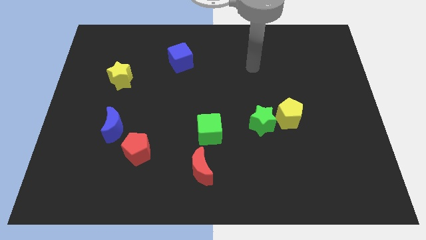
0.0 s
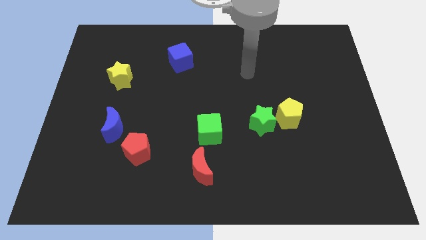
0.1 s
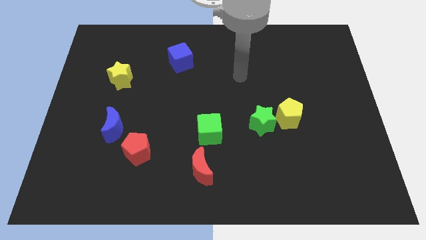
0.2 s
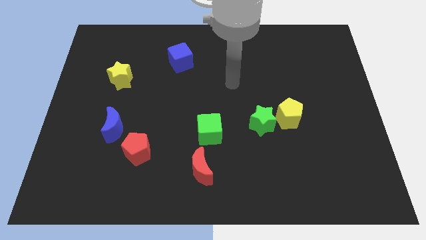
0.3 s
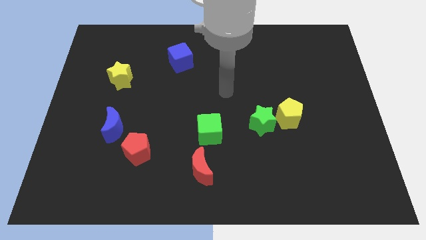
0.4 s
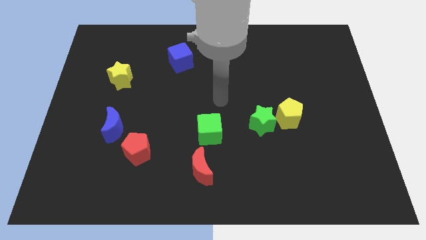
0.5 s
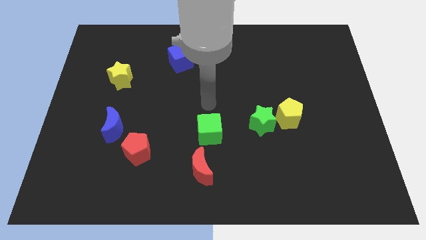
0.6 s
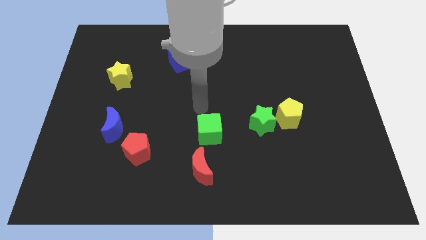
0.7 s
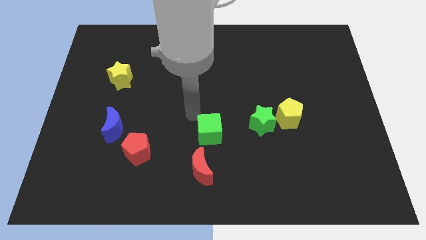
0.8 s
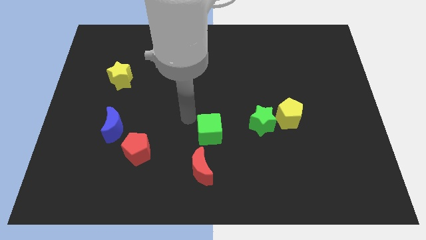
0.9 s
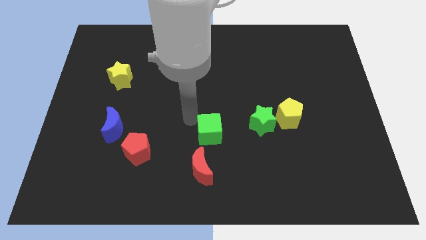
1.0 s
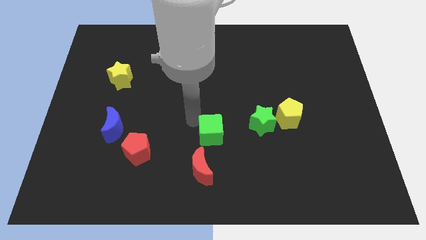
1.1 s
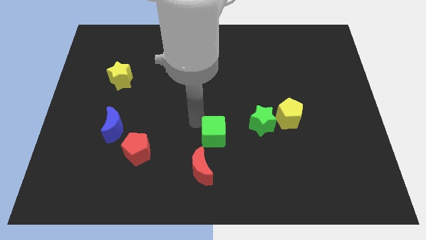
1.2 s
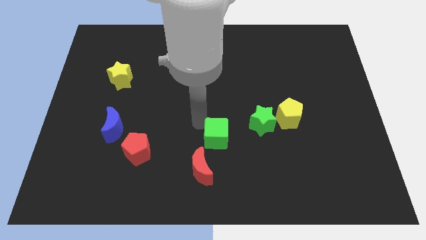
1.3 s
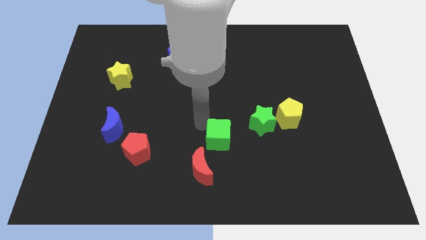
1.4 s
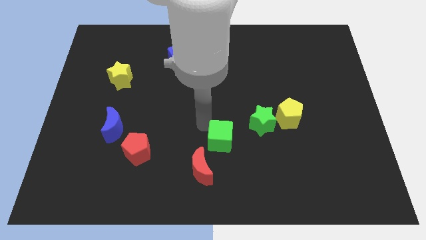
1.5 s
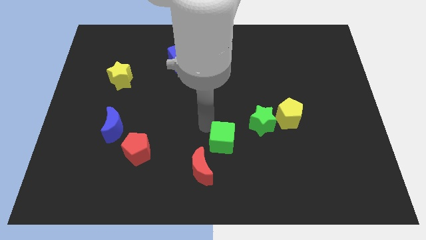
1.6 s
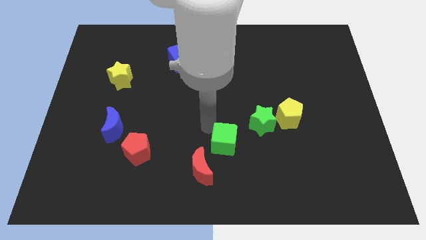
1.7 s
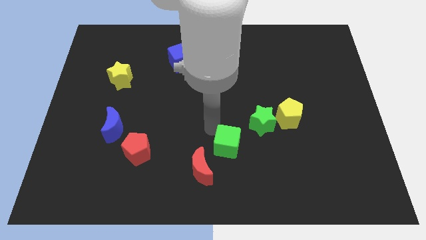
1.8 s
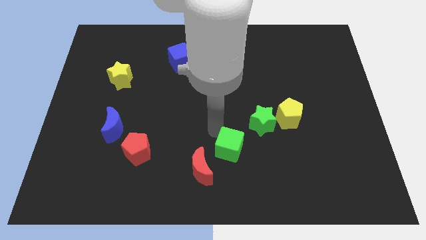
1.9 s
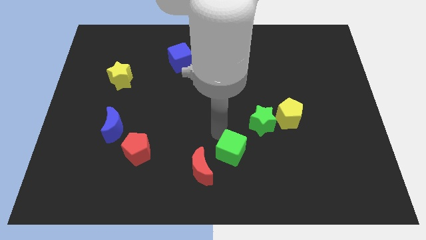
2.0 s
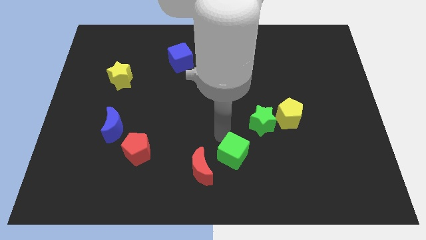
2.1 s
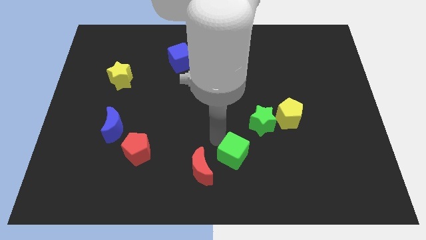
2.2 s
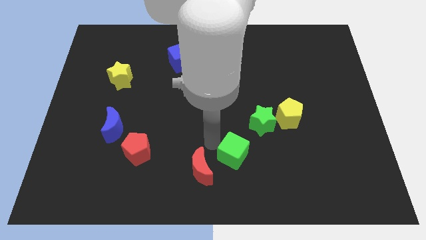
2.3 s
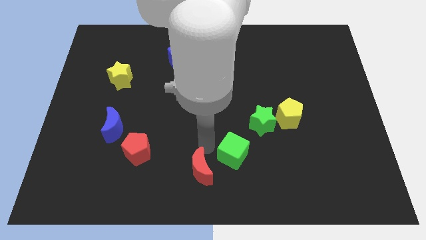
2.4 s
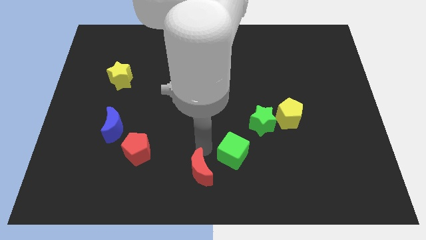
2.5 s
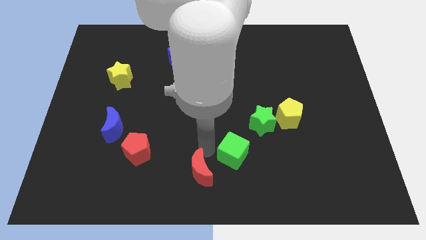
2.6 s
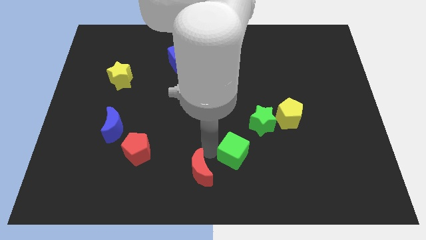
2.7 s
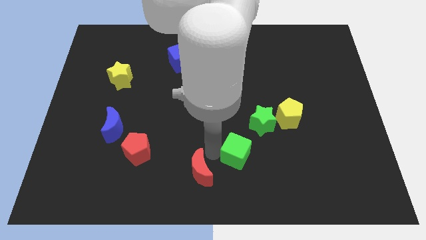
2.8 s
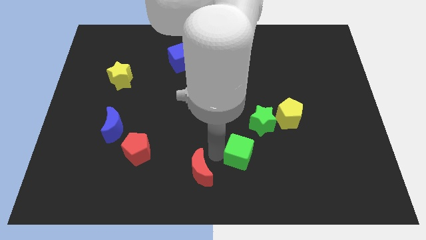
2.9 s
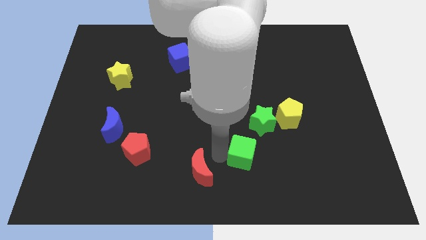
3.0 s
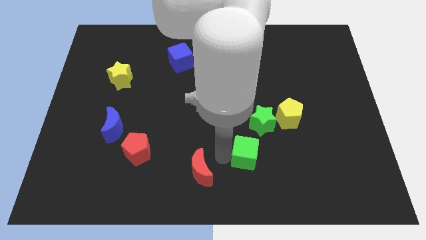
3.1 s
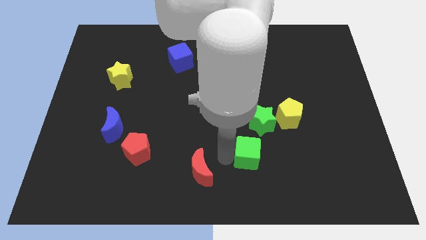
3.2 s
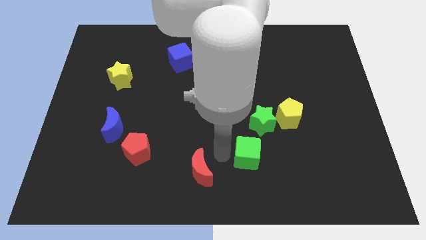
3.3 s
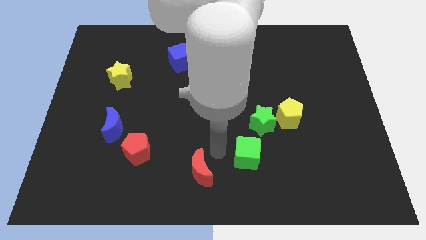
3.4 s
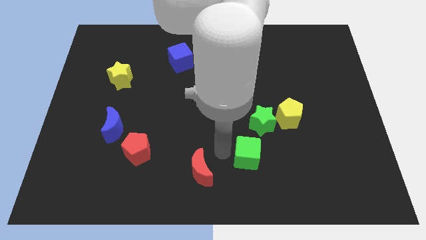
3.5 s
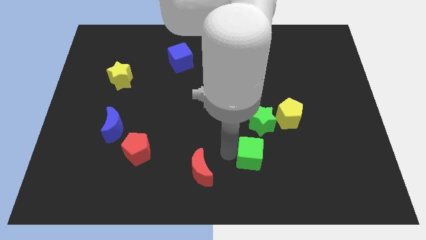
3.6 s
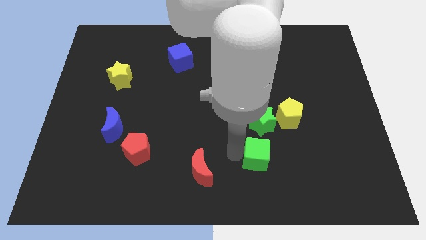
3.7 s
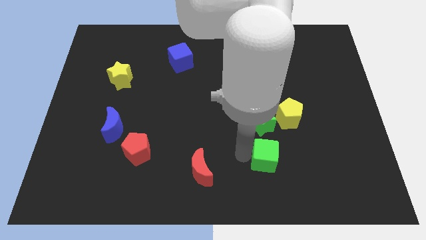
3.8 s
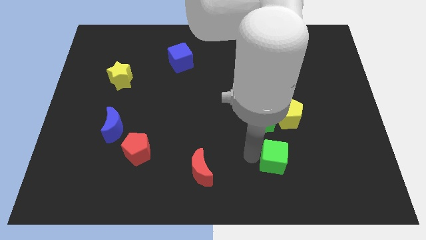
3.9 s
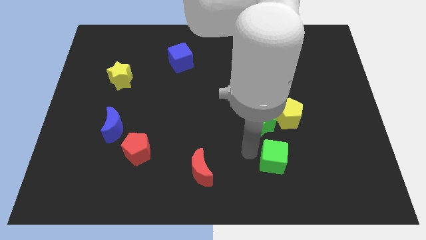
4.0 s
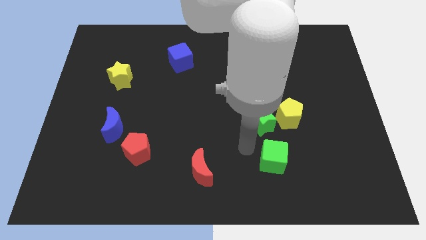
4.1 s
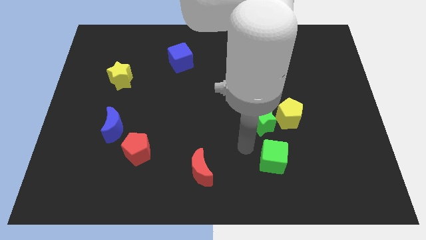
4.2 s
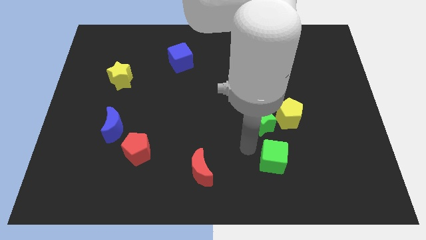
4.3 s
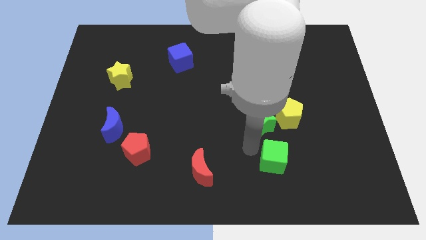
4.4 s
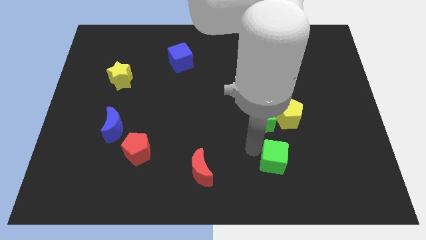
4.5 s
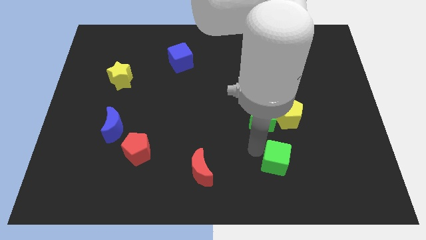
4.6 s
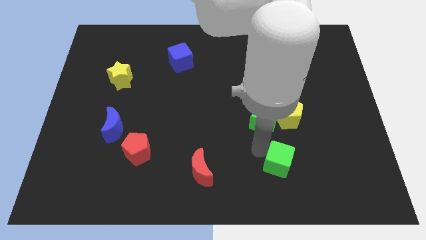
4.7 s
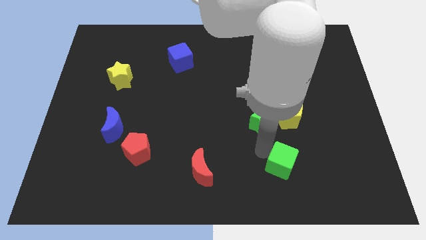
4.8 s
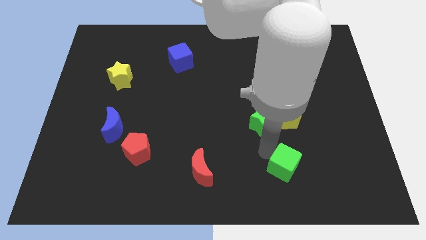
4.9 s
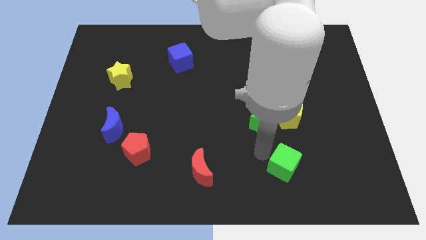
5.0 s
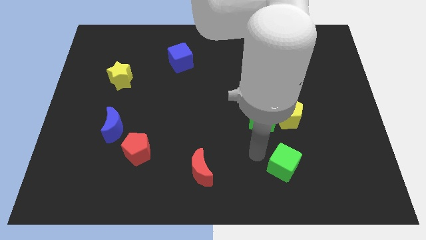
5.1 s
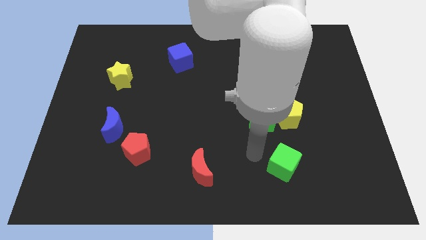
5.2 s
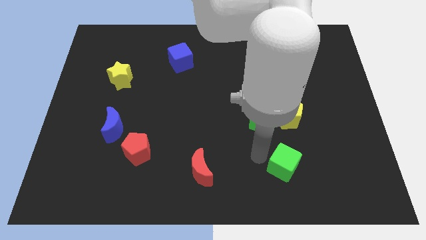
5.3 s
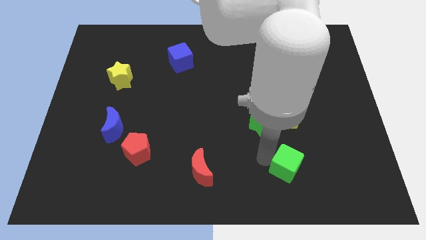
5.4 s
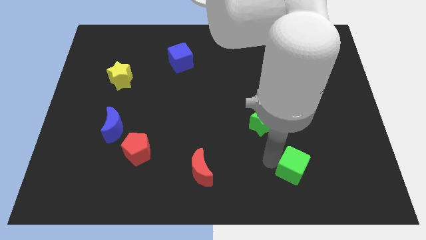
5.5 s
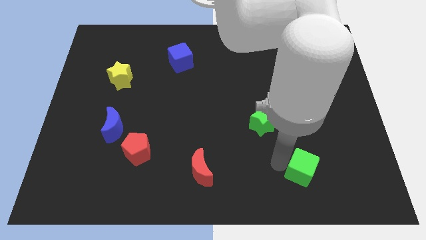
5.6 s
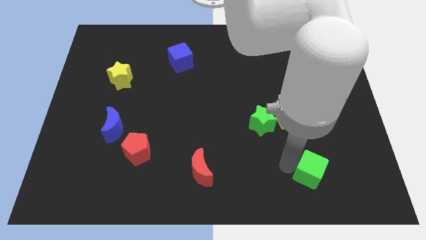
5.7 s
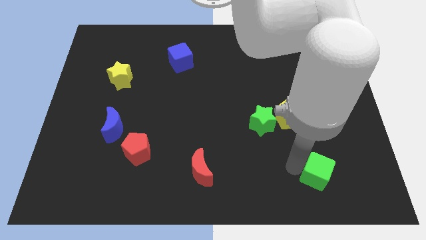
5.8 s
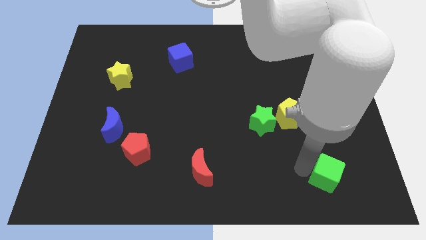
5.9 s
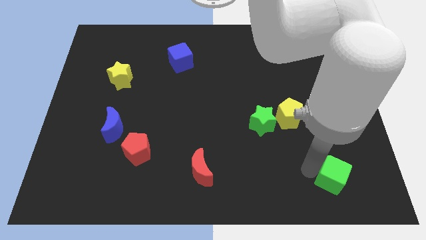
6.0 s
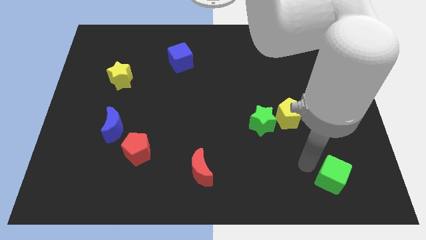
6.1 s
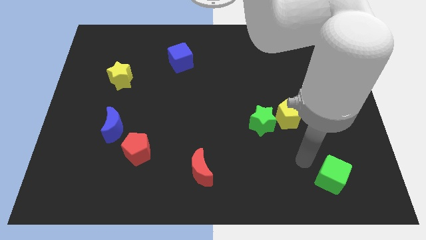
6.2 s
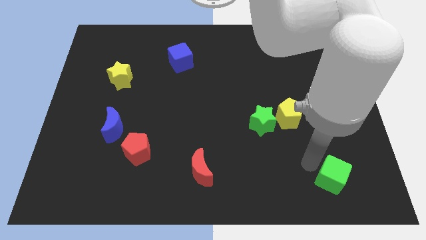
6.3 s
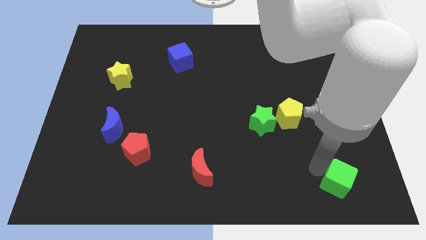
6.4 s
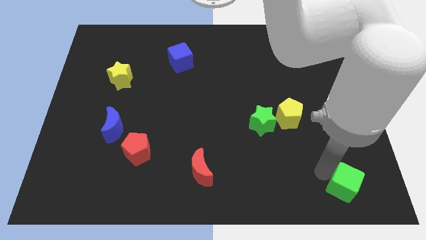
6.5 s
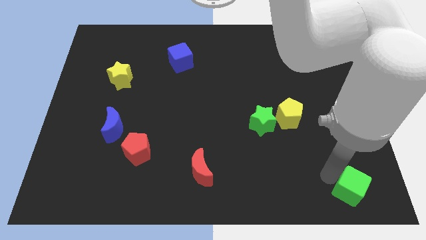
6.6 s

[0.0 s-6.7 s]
slide the green cube to the bottom right corner
